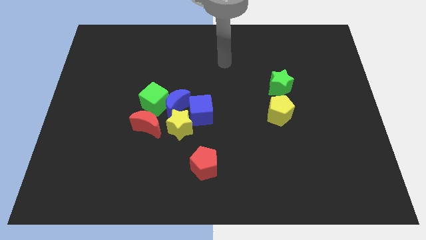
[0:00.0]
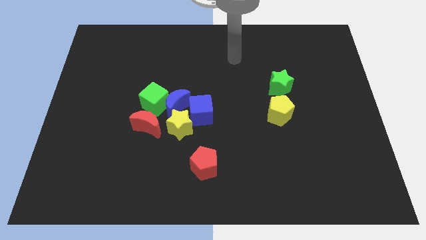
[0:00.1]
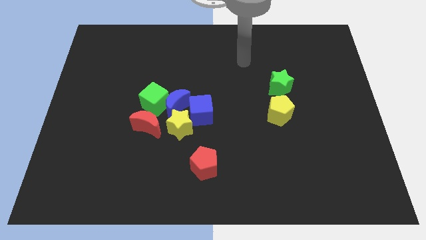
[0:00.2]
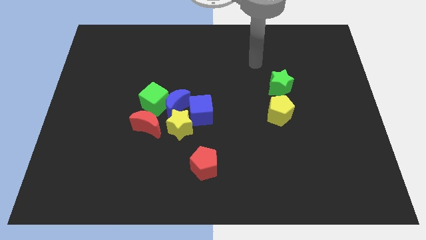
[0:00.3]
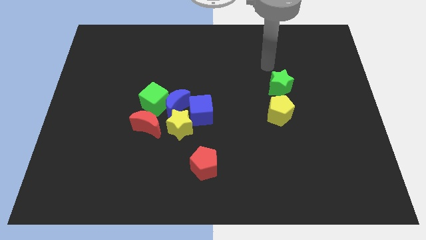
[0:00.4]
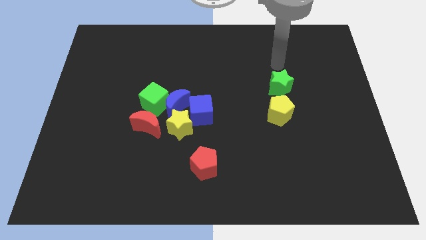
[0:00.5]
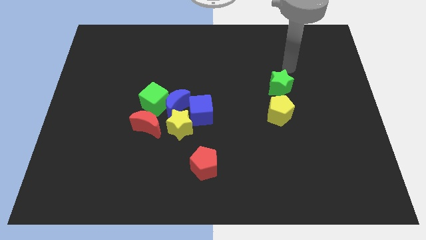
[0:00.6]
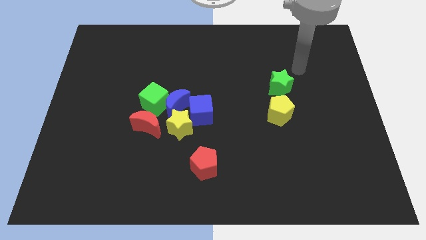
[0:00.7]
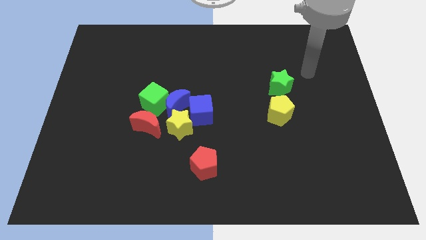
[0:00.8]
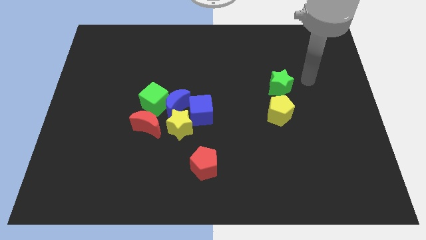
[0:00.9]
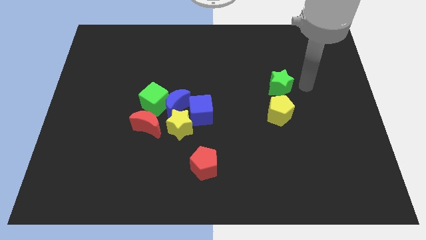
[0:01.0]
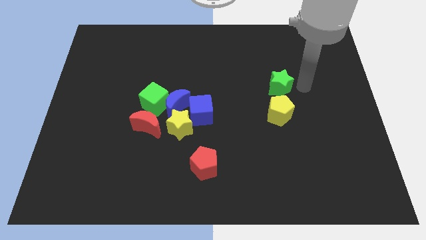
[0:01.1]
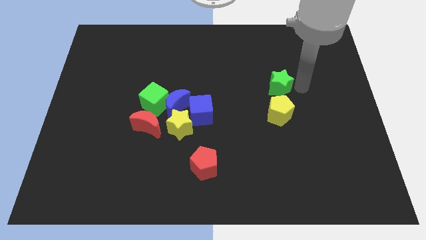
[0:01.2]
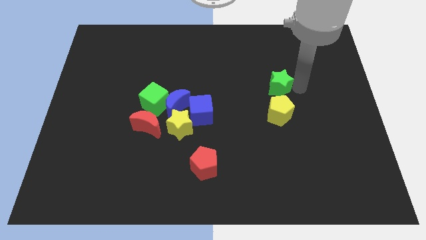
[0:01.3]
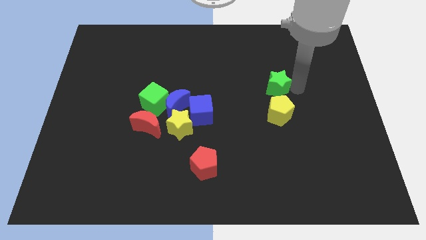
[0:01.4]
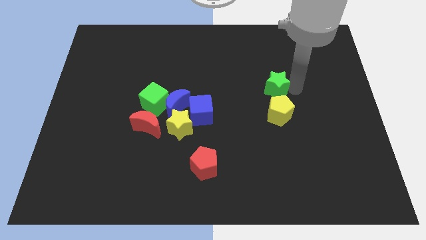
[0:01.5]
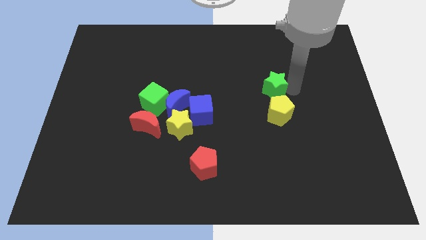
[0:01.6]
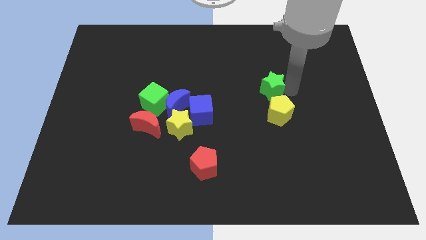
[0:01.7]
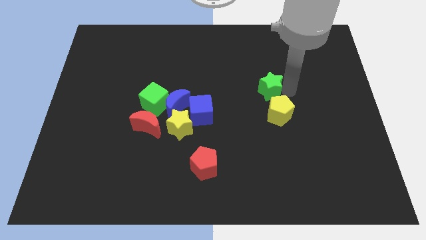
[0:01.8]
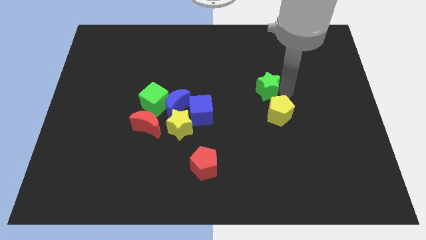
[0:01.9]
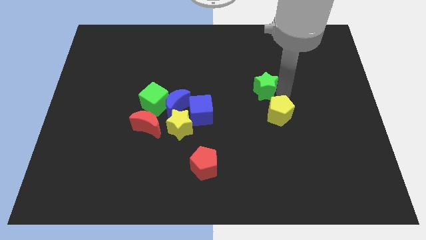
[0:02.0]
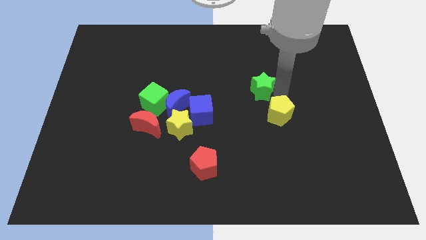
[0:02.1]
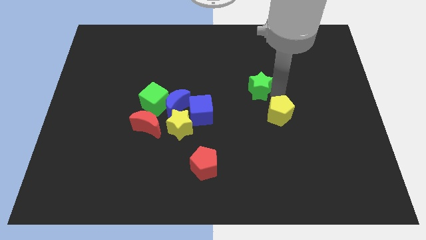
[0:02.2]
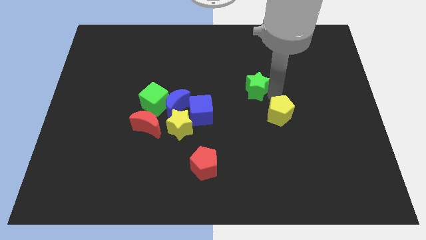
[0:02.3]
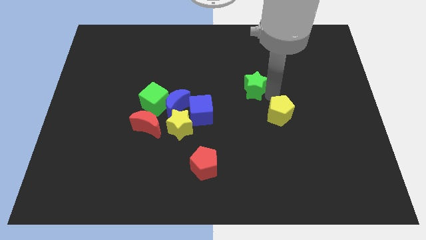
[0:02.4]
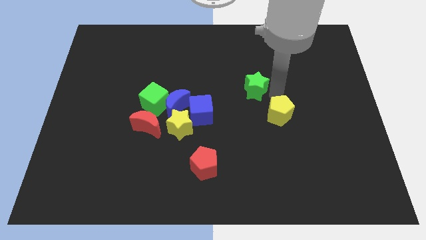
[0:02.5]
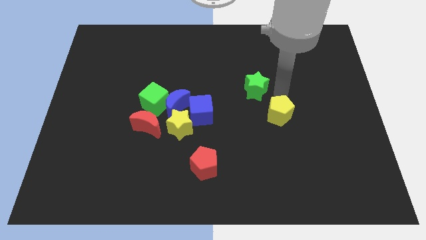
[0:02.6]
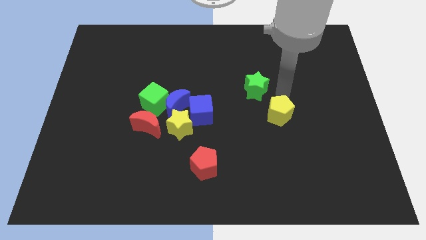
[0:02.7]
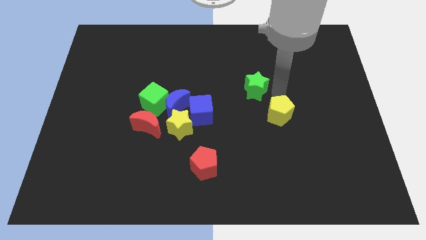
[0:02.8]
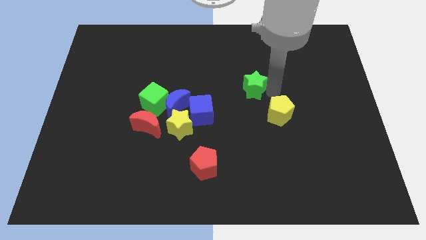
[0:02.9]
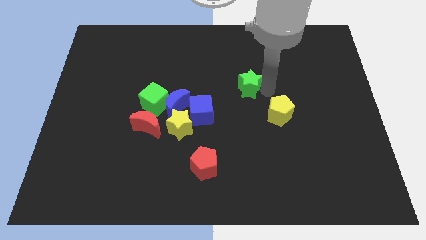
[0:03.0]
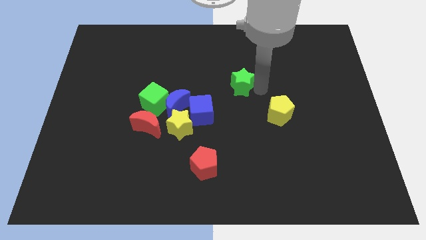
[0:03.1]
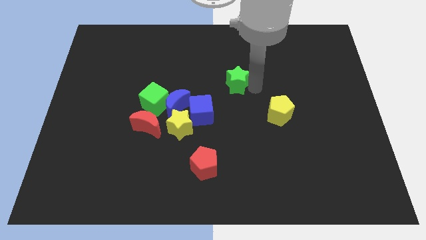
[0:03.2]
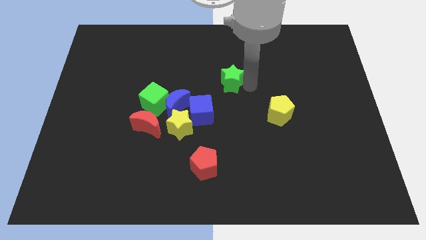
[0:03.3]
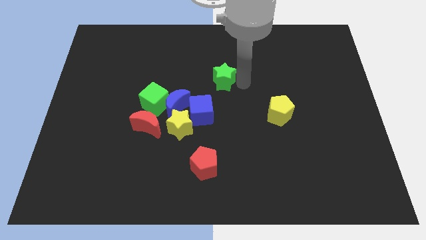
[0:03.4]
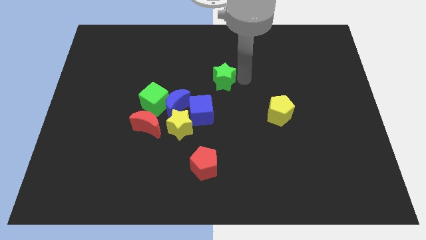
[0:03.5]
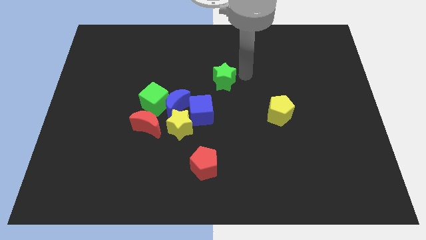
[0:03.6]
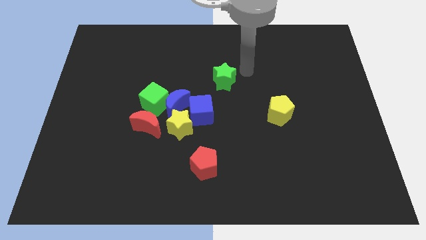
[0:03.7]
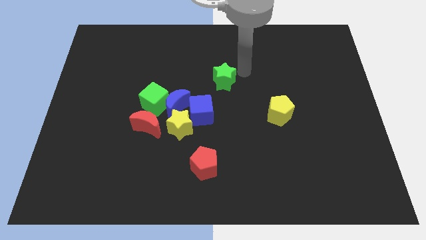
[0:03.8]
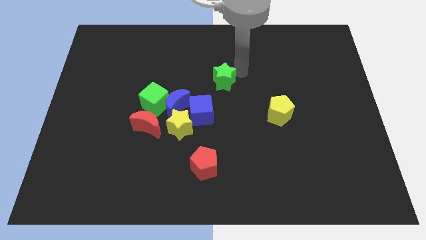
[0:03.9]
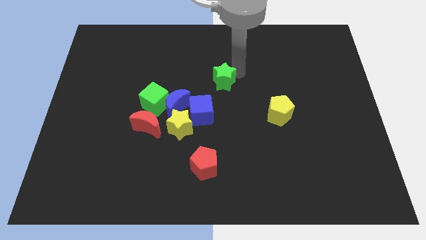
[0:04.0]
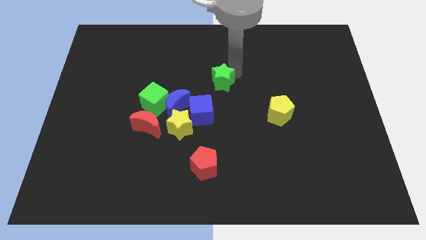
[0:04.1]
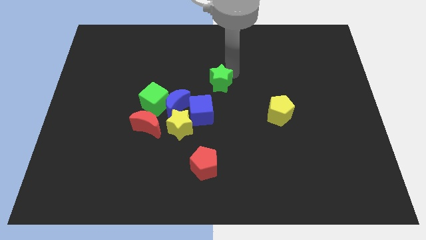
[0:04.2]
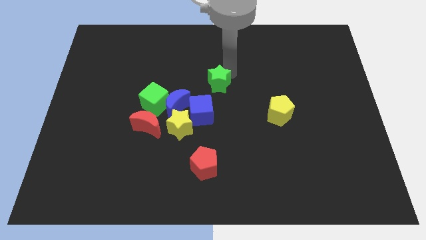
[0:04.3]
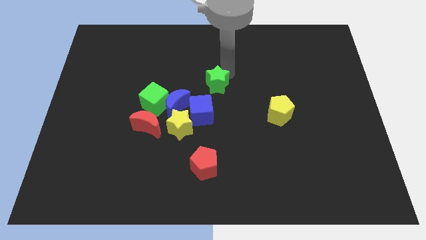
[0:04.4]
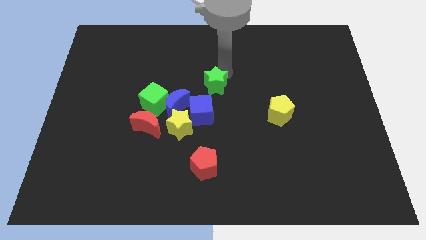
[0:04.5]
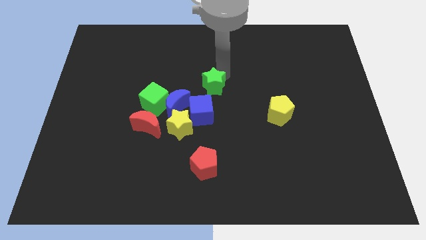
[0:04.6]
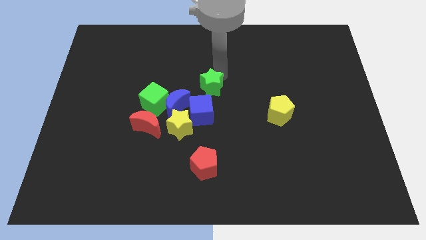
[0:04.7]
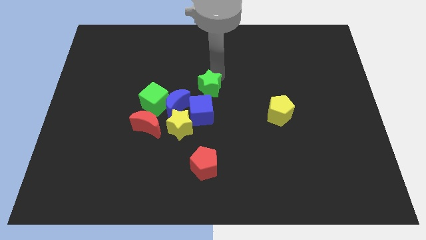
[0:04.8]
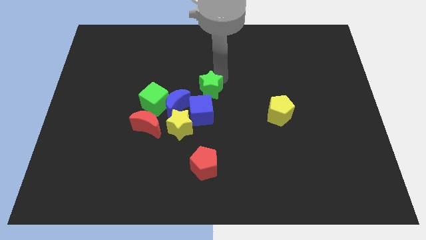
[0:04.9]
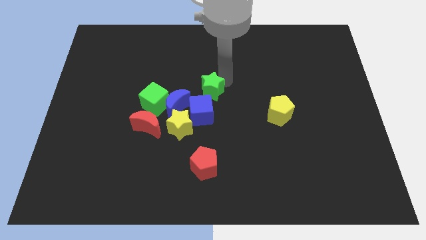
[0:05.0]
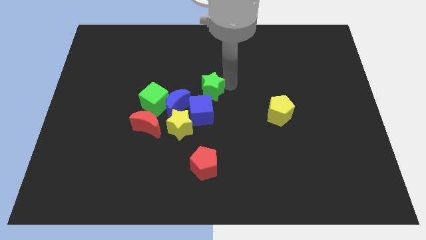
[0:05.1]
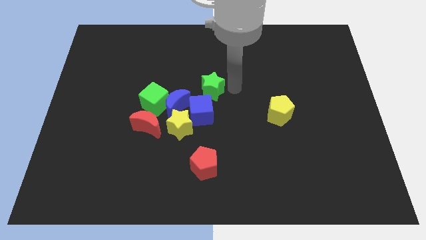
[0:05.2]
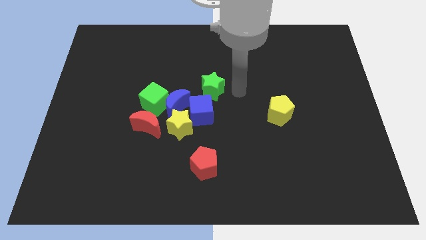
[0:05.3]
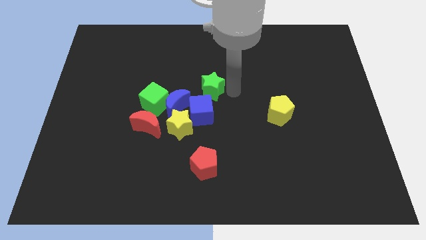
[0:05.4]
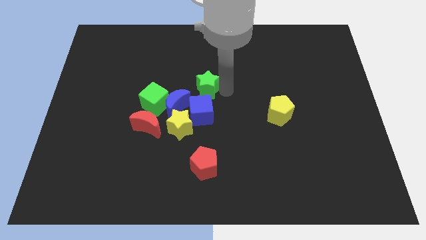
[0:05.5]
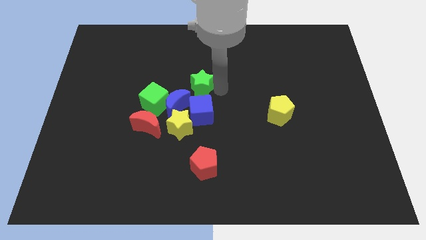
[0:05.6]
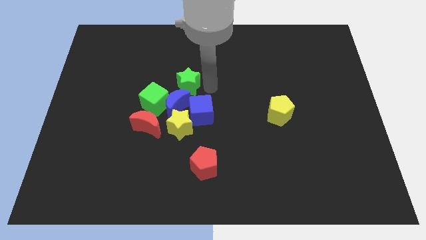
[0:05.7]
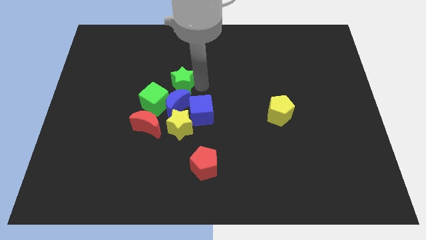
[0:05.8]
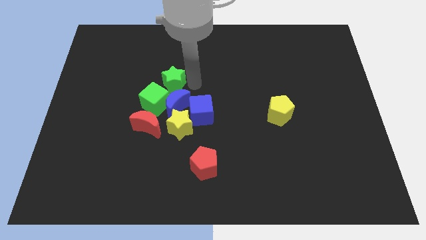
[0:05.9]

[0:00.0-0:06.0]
slide the green star to the top left of the blue moon
